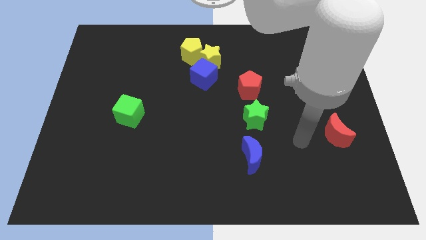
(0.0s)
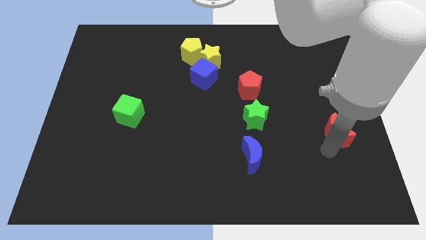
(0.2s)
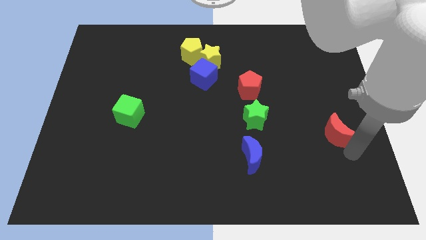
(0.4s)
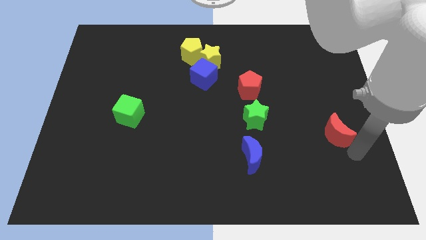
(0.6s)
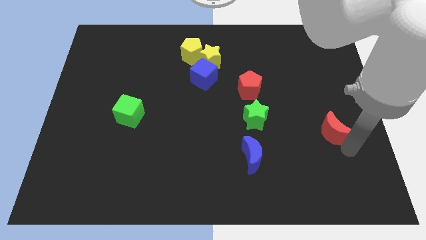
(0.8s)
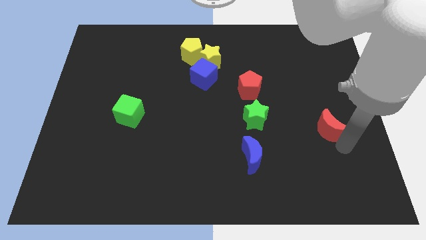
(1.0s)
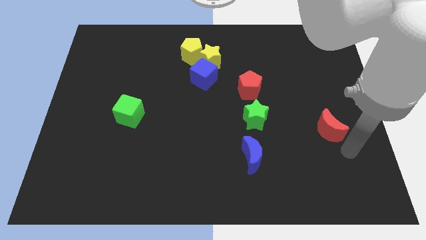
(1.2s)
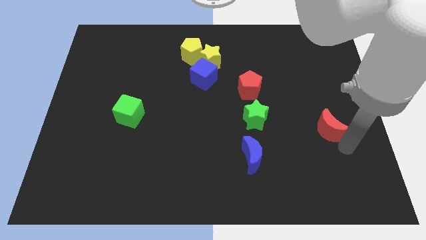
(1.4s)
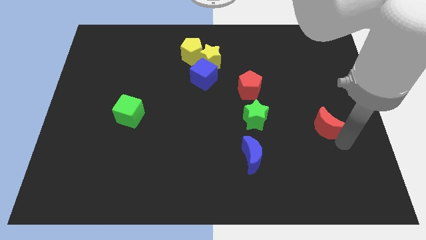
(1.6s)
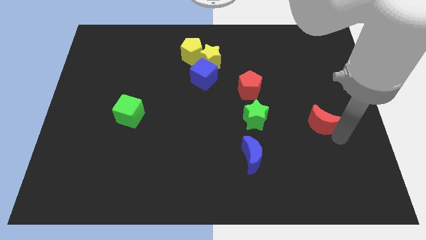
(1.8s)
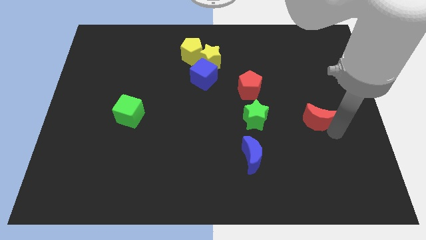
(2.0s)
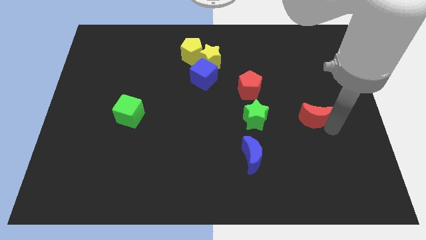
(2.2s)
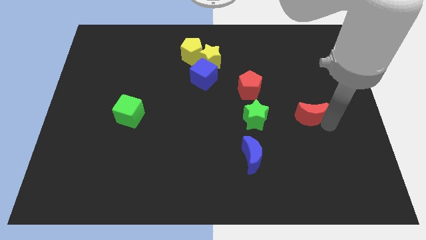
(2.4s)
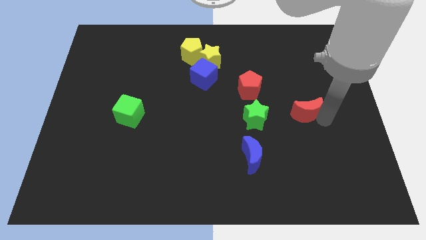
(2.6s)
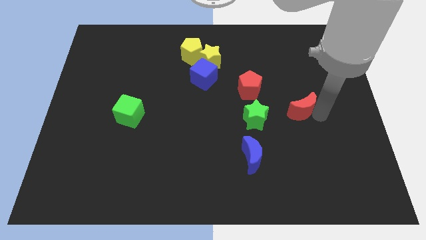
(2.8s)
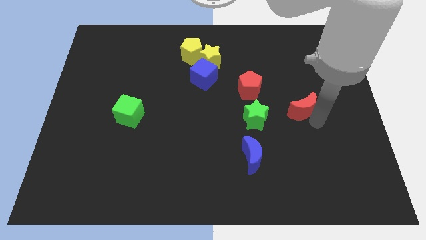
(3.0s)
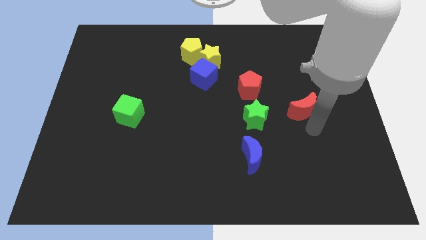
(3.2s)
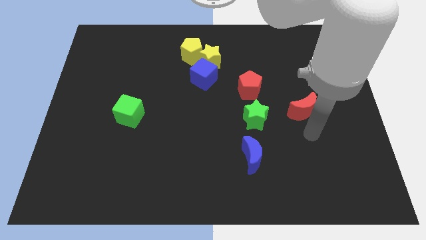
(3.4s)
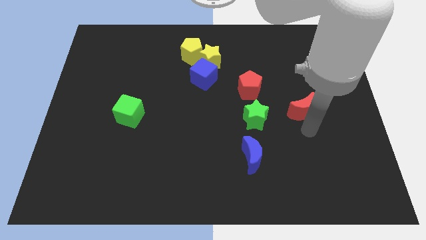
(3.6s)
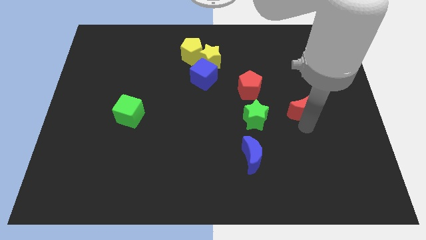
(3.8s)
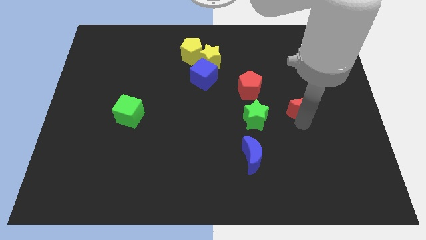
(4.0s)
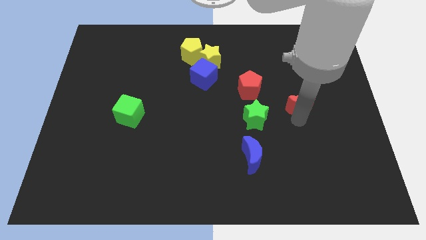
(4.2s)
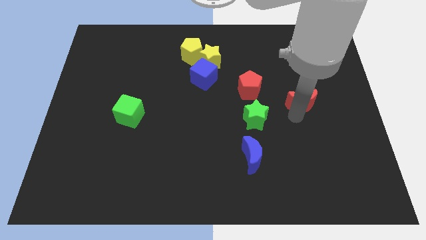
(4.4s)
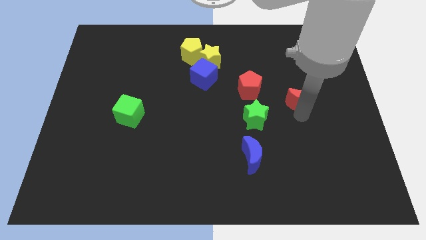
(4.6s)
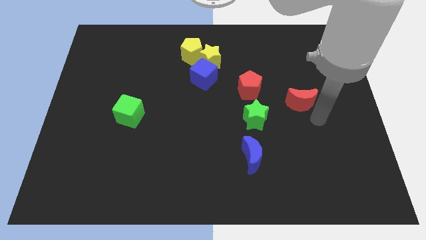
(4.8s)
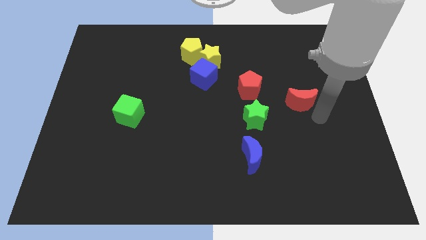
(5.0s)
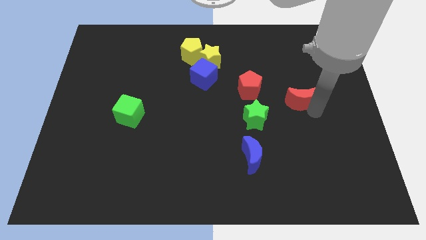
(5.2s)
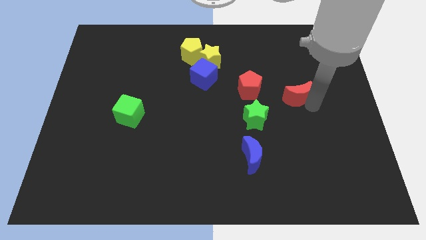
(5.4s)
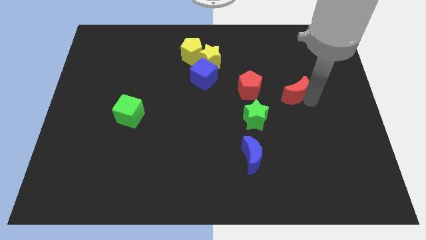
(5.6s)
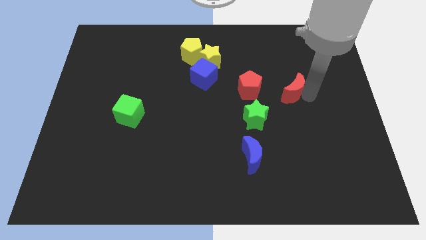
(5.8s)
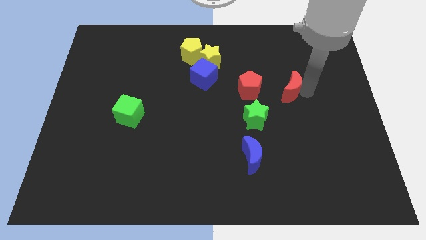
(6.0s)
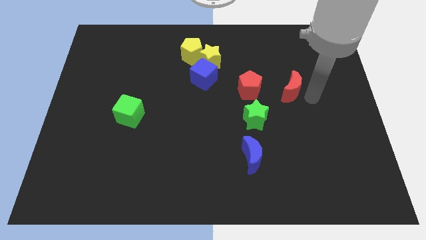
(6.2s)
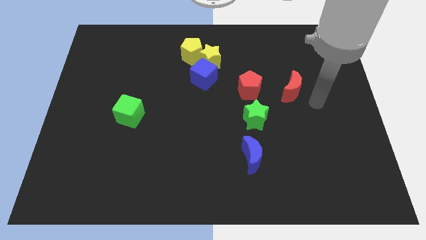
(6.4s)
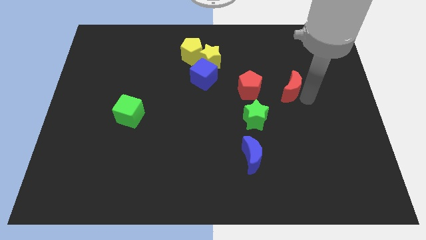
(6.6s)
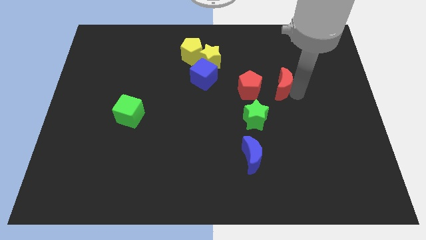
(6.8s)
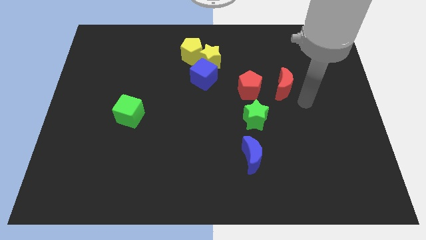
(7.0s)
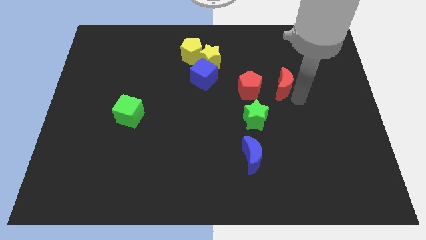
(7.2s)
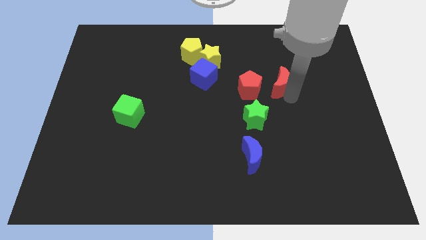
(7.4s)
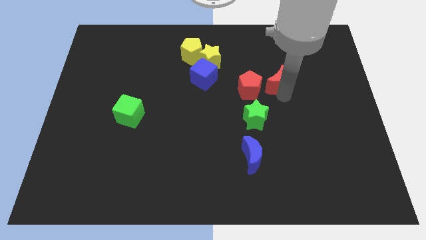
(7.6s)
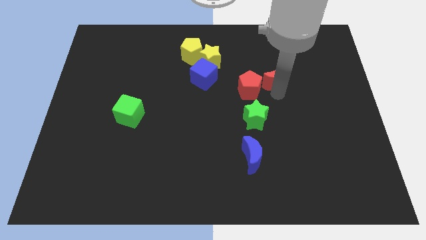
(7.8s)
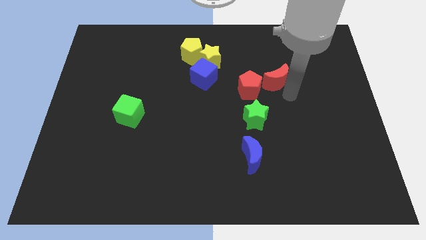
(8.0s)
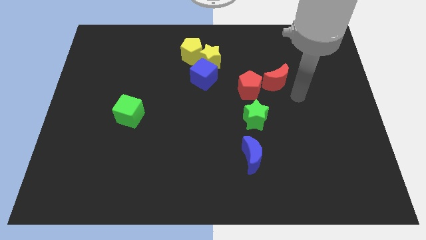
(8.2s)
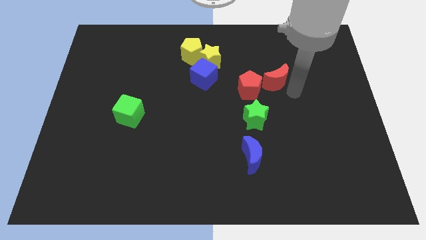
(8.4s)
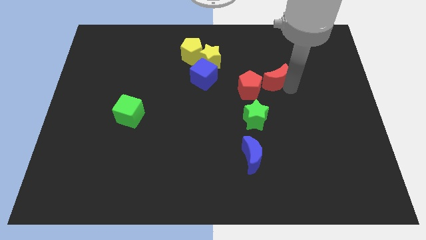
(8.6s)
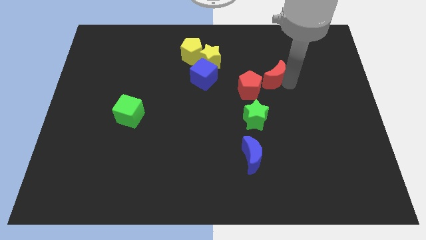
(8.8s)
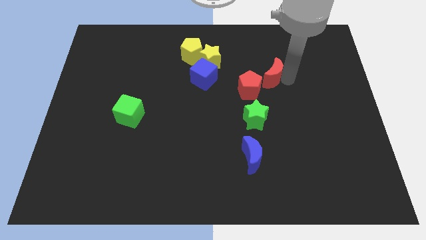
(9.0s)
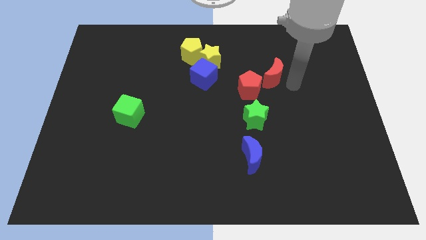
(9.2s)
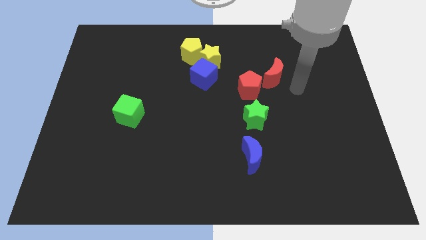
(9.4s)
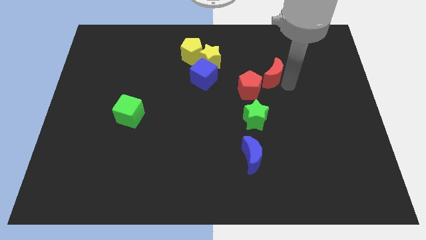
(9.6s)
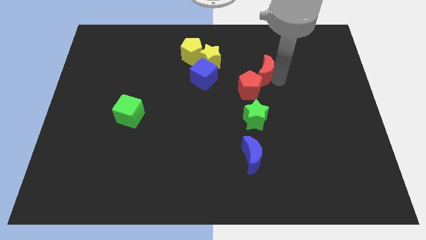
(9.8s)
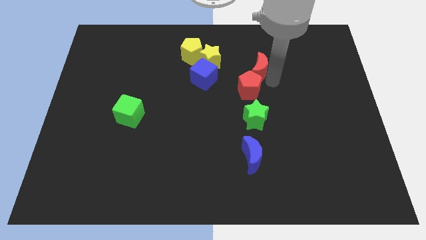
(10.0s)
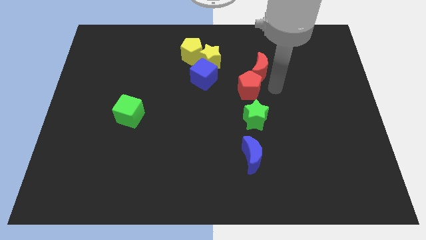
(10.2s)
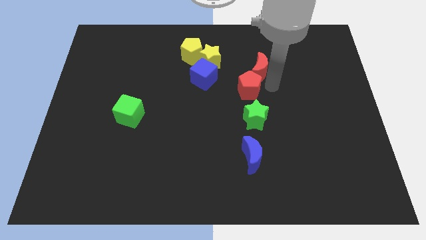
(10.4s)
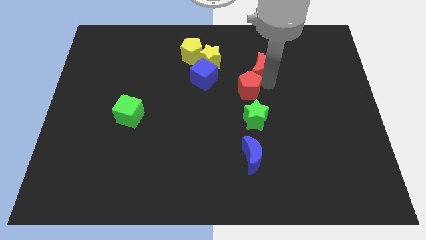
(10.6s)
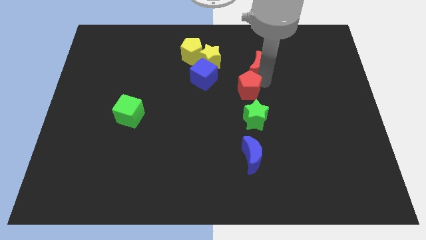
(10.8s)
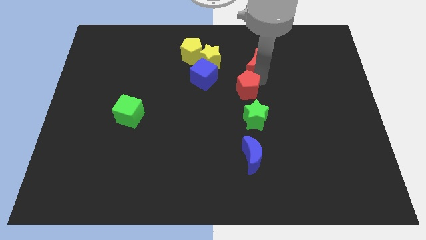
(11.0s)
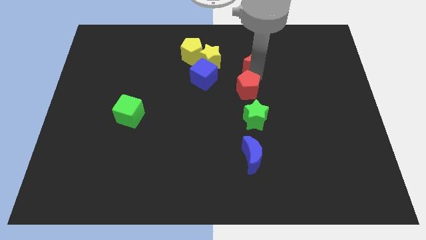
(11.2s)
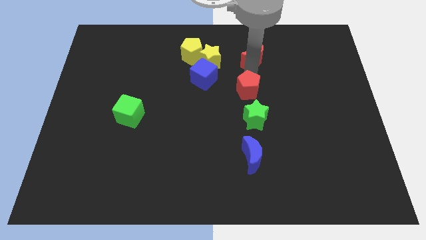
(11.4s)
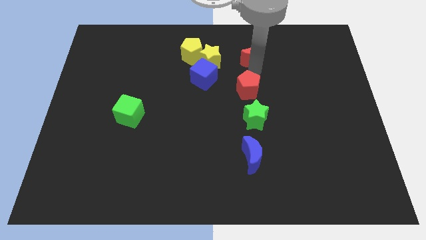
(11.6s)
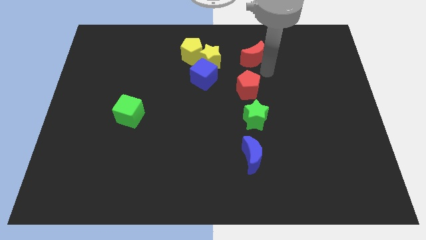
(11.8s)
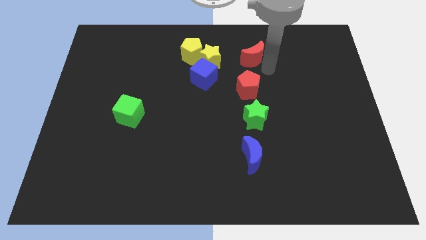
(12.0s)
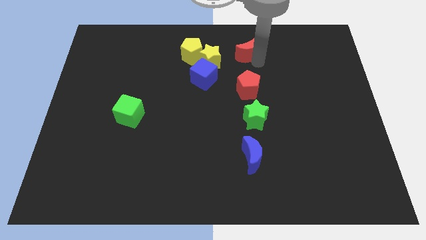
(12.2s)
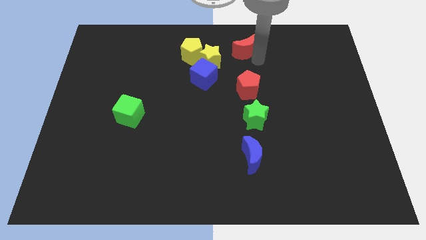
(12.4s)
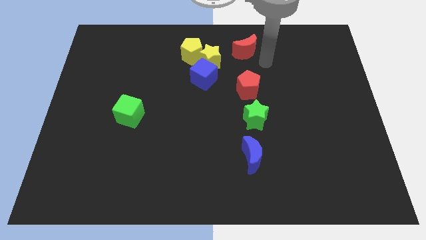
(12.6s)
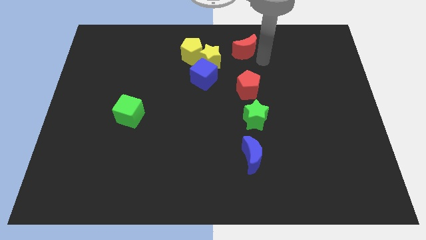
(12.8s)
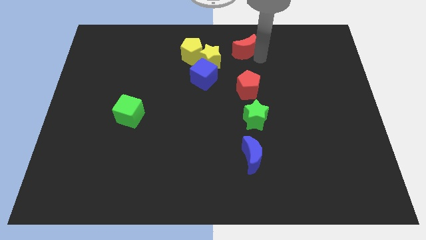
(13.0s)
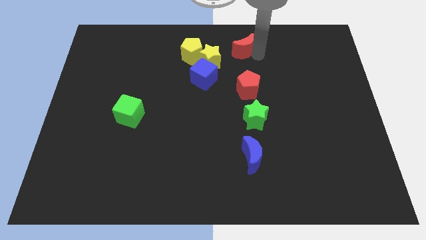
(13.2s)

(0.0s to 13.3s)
move the red moon to the top side
